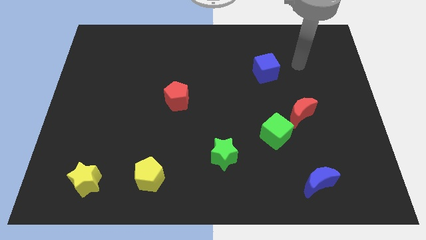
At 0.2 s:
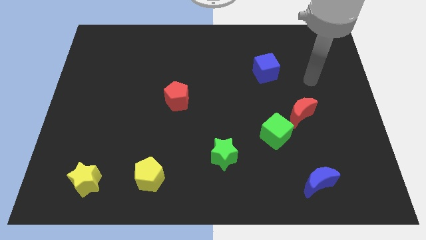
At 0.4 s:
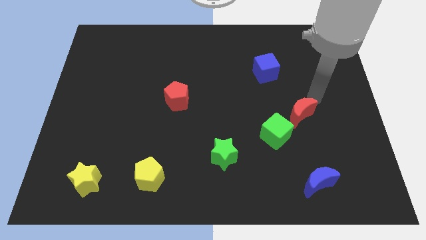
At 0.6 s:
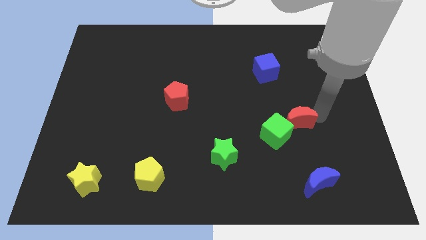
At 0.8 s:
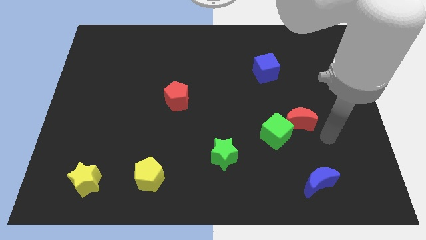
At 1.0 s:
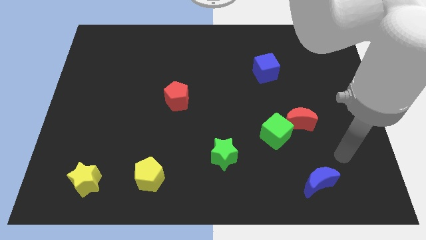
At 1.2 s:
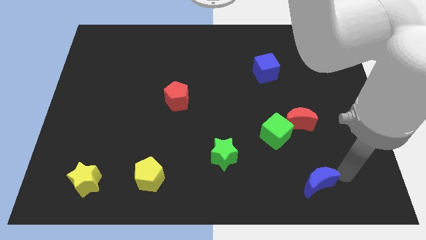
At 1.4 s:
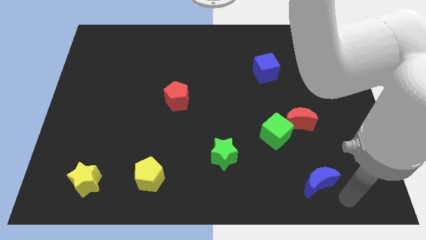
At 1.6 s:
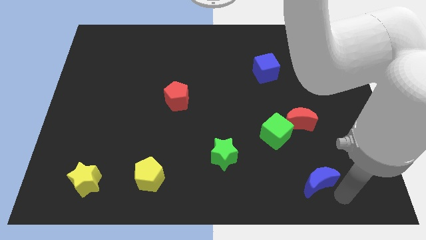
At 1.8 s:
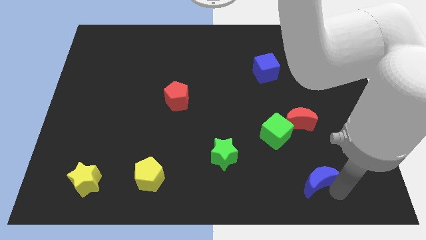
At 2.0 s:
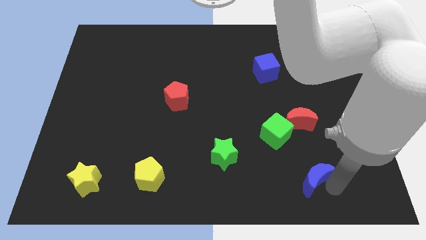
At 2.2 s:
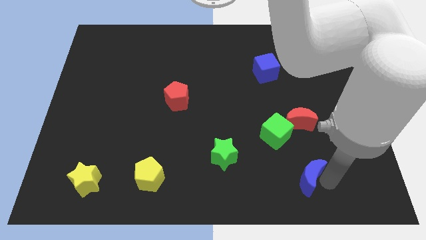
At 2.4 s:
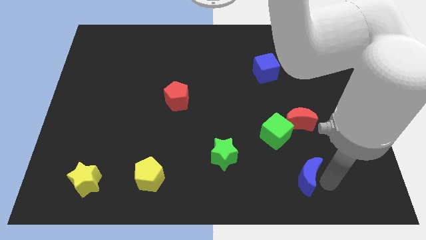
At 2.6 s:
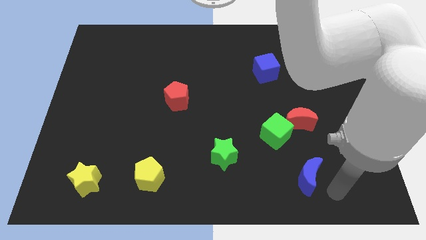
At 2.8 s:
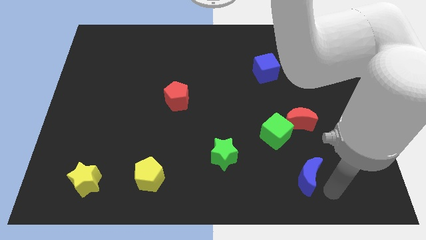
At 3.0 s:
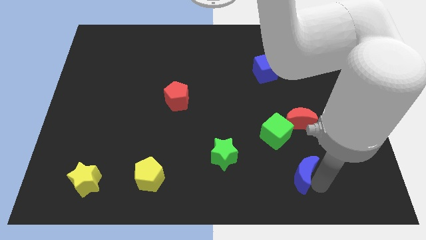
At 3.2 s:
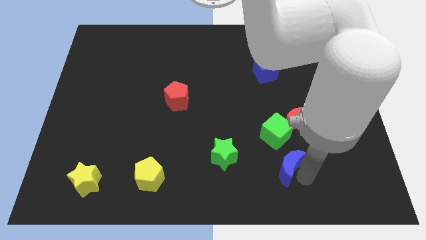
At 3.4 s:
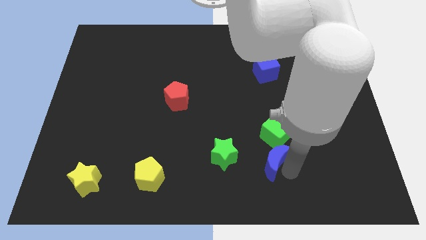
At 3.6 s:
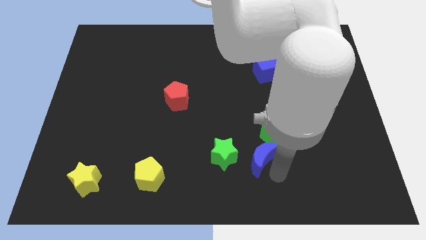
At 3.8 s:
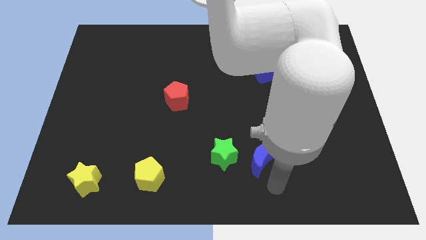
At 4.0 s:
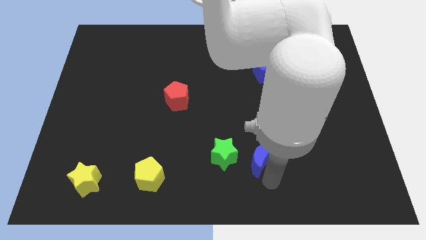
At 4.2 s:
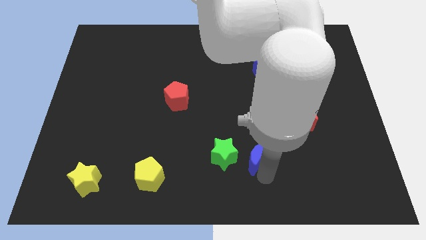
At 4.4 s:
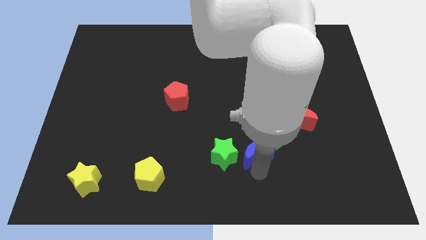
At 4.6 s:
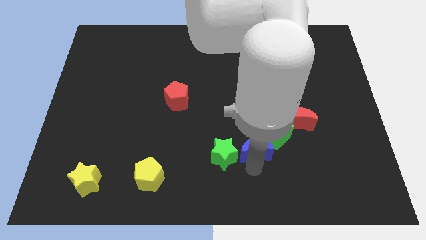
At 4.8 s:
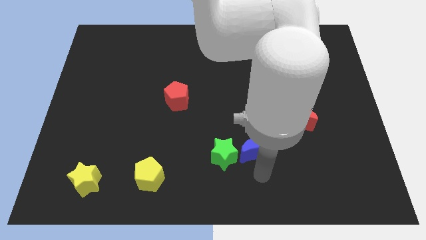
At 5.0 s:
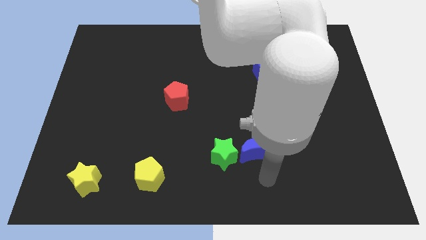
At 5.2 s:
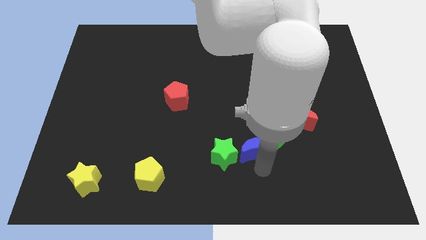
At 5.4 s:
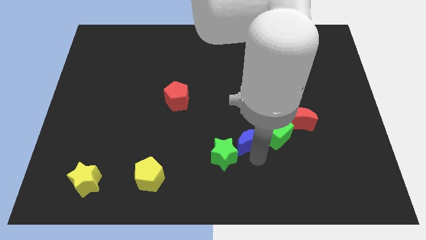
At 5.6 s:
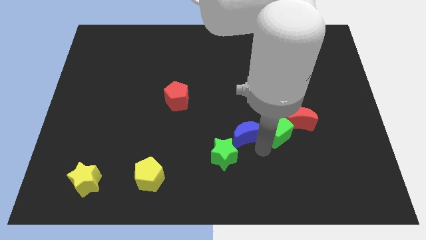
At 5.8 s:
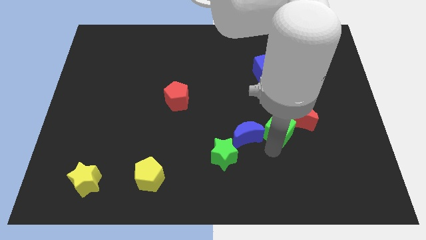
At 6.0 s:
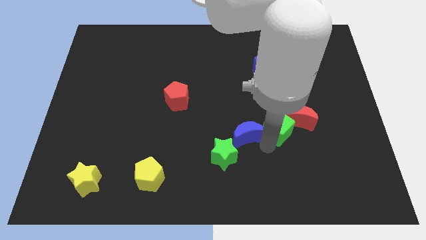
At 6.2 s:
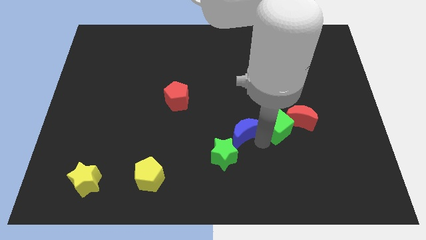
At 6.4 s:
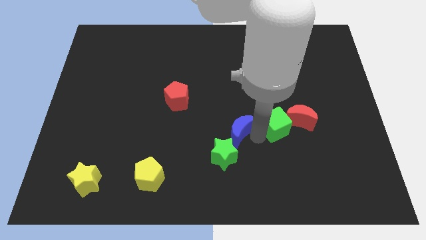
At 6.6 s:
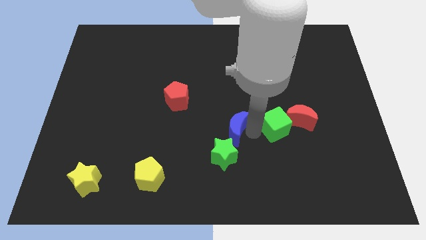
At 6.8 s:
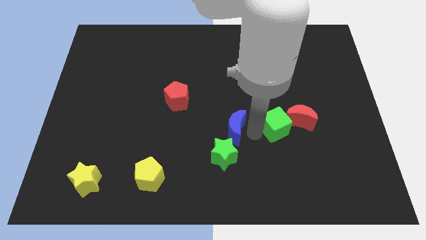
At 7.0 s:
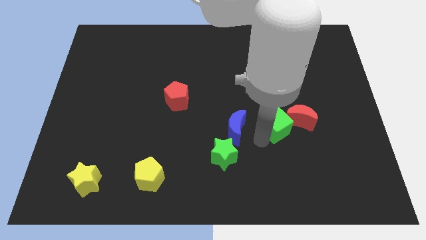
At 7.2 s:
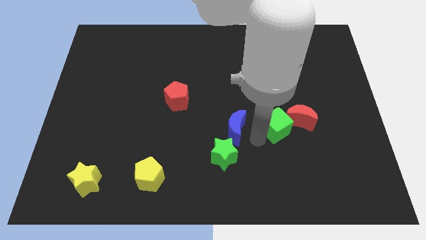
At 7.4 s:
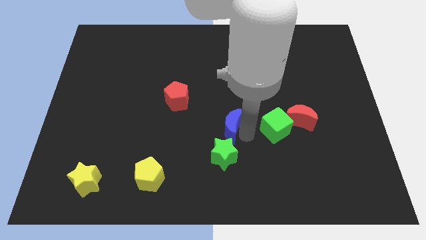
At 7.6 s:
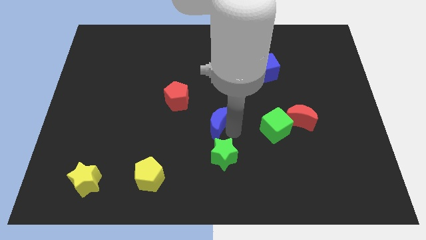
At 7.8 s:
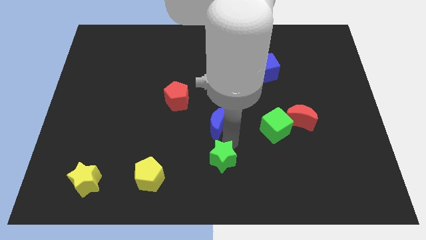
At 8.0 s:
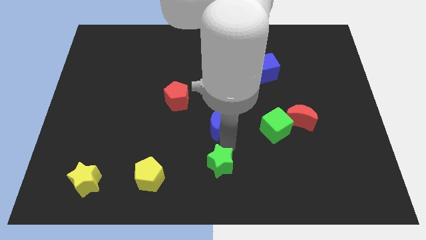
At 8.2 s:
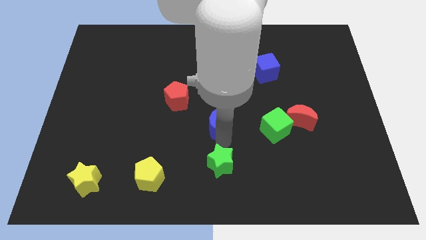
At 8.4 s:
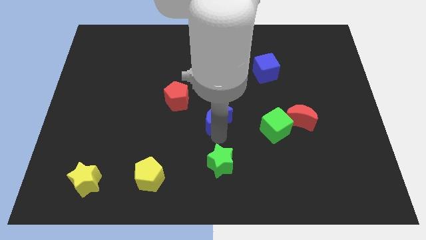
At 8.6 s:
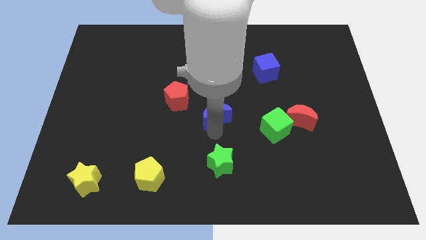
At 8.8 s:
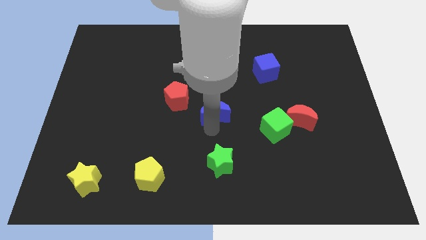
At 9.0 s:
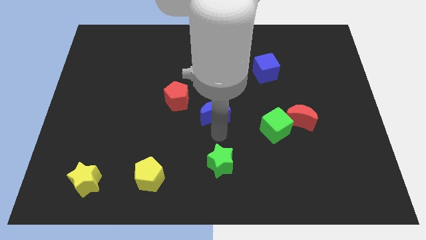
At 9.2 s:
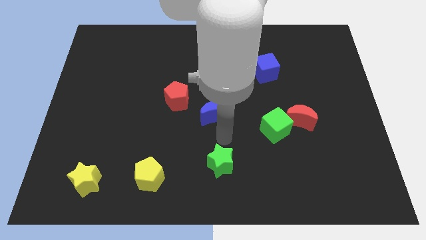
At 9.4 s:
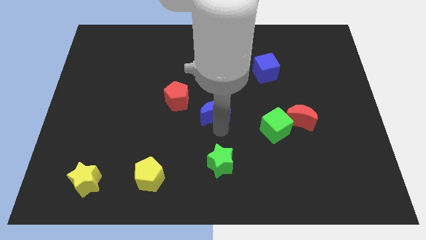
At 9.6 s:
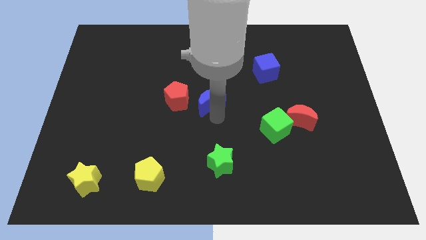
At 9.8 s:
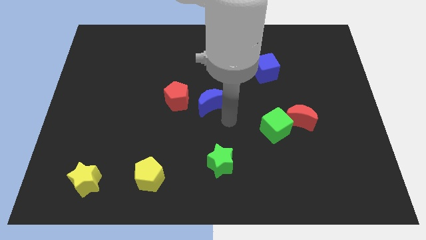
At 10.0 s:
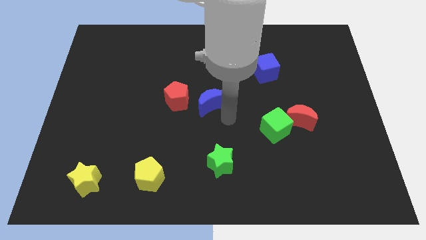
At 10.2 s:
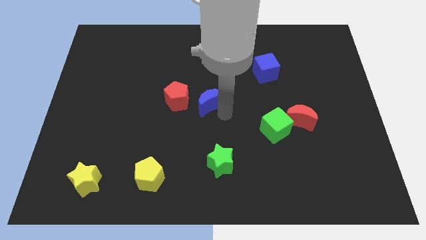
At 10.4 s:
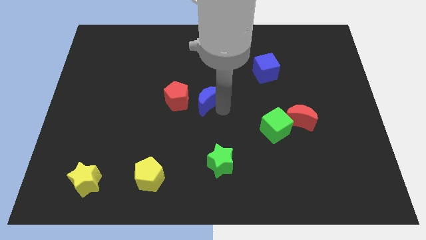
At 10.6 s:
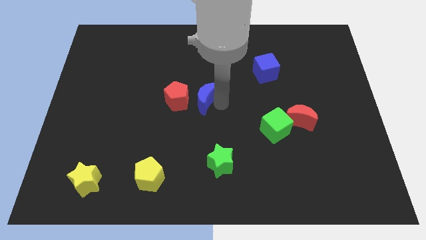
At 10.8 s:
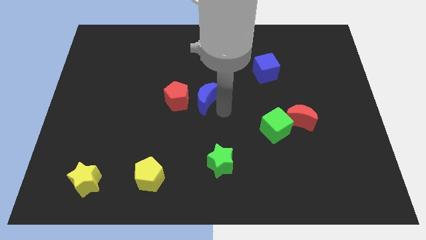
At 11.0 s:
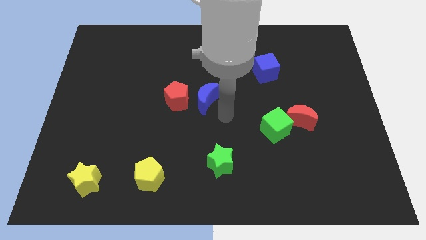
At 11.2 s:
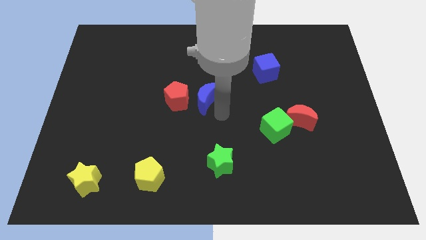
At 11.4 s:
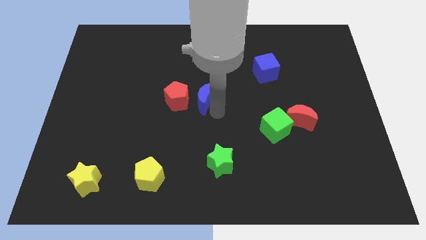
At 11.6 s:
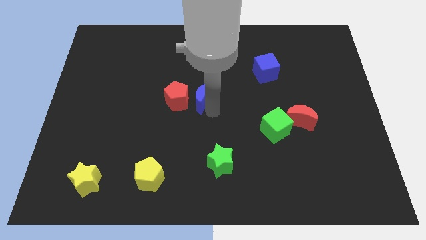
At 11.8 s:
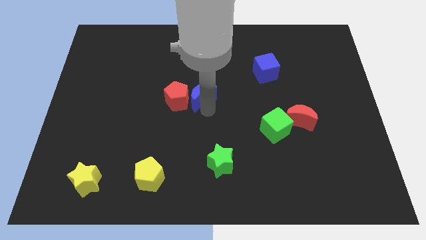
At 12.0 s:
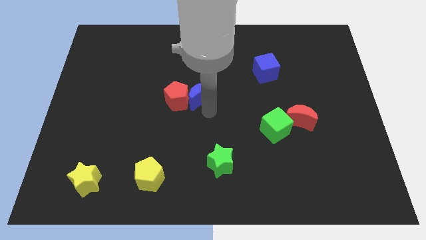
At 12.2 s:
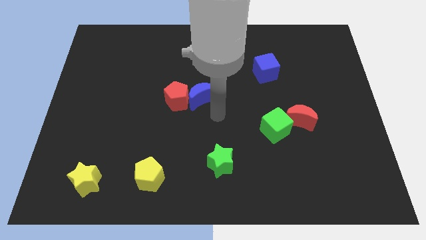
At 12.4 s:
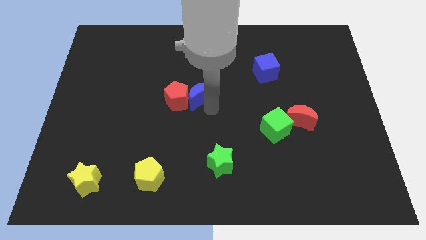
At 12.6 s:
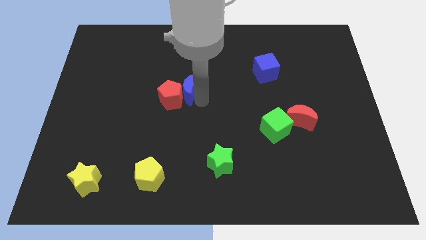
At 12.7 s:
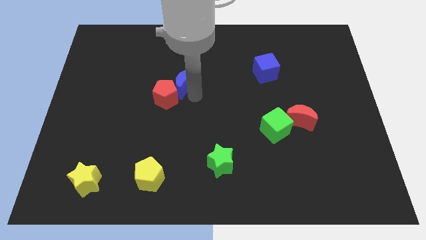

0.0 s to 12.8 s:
put the blue moon above the red pentagon

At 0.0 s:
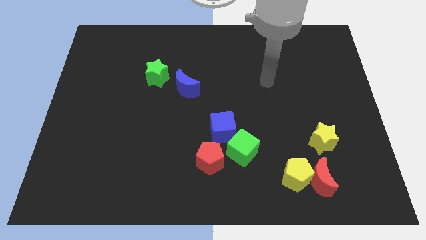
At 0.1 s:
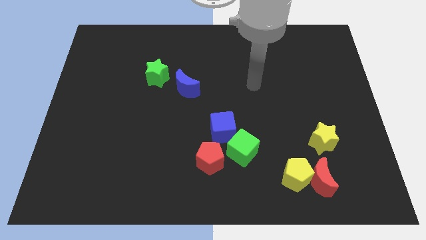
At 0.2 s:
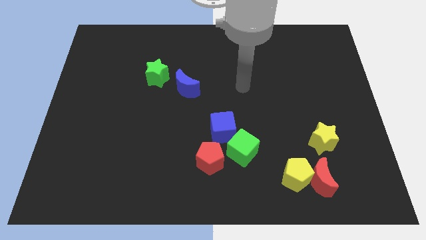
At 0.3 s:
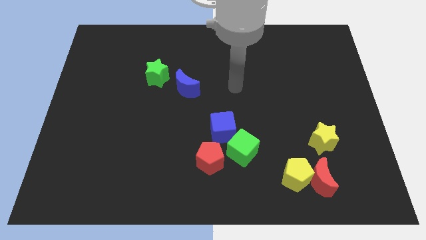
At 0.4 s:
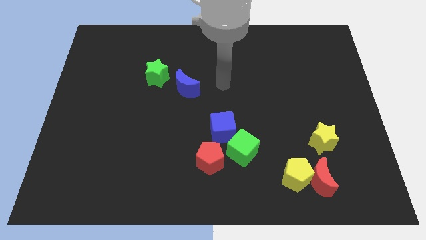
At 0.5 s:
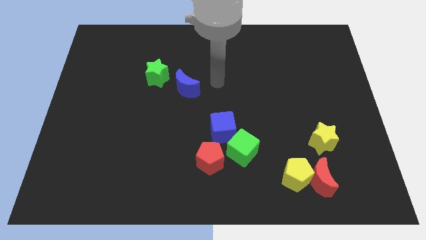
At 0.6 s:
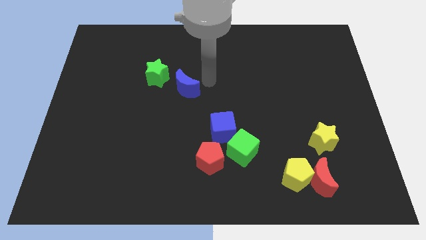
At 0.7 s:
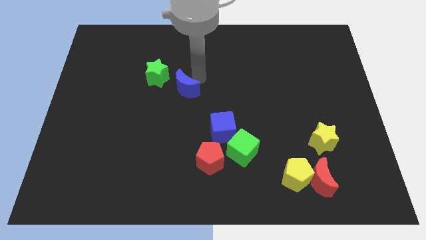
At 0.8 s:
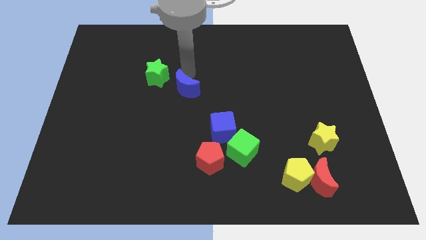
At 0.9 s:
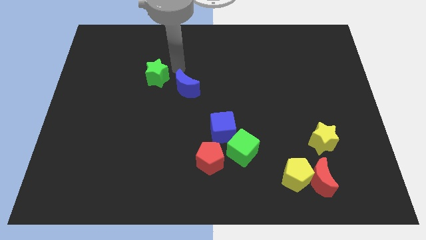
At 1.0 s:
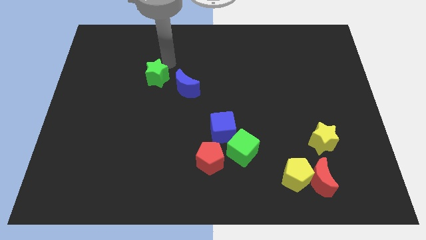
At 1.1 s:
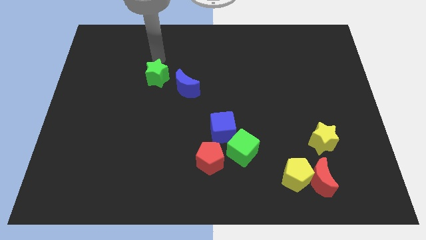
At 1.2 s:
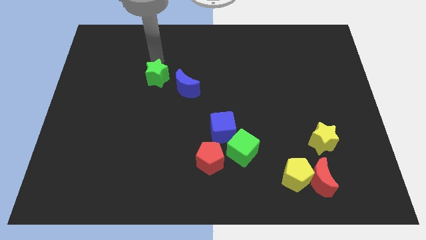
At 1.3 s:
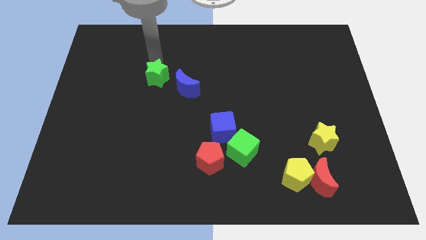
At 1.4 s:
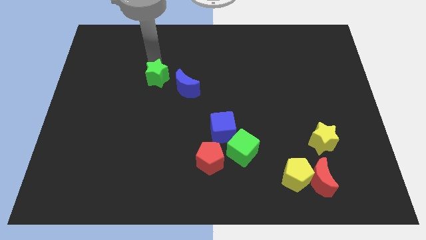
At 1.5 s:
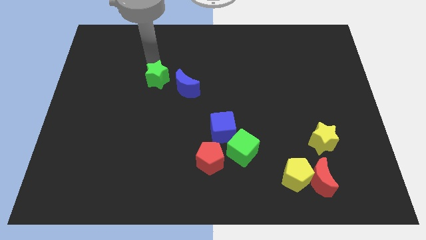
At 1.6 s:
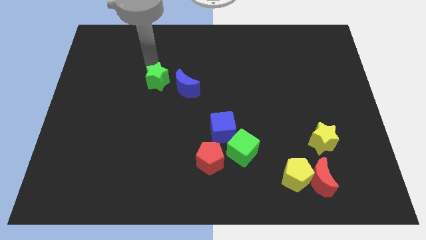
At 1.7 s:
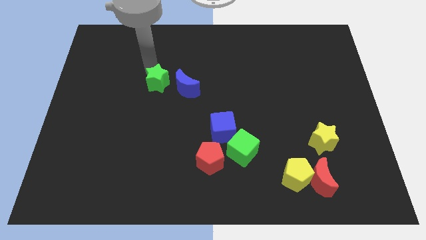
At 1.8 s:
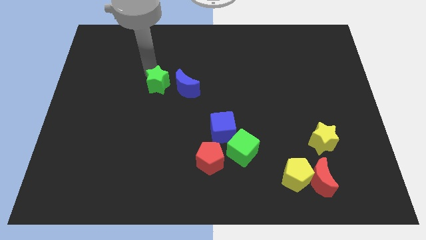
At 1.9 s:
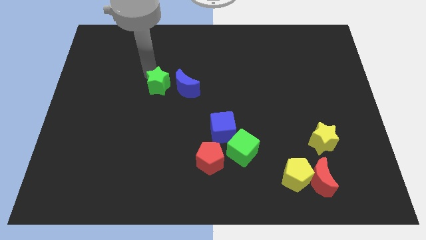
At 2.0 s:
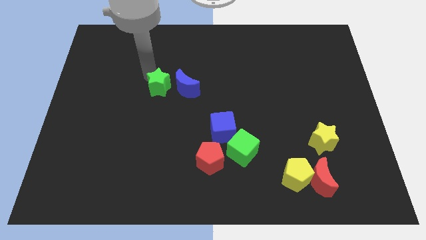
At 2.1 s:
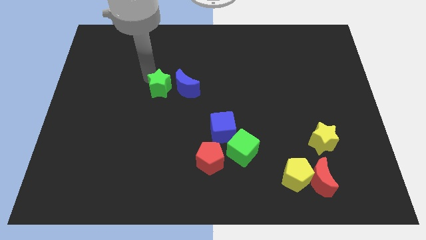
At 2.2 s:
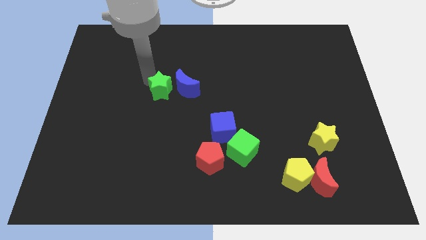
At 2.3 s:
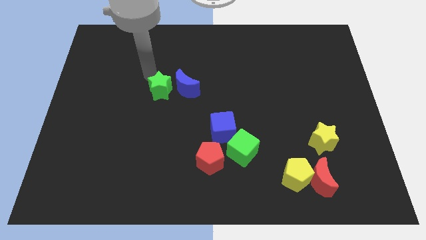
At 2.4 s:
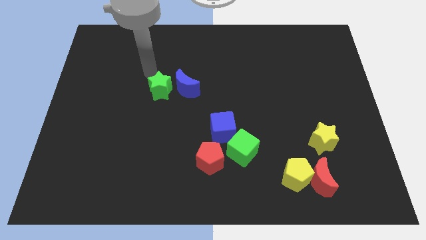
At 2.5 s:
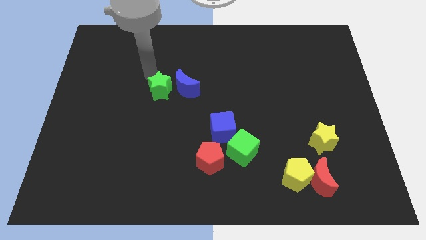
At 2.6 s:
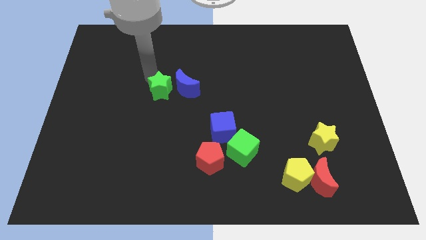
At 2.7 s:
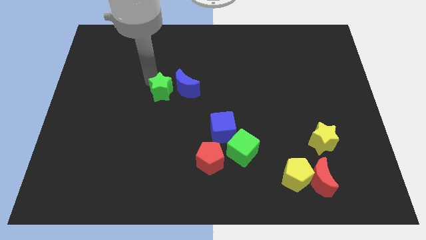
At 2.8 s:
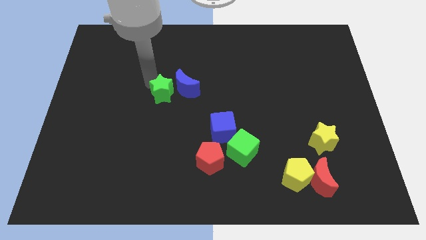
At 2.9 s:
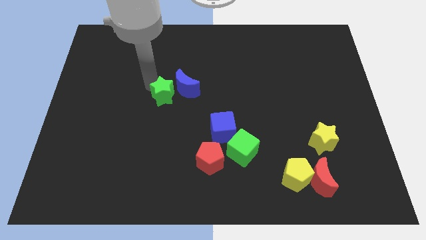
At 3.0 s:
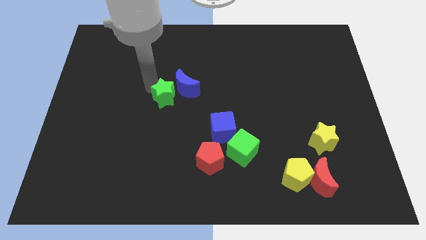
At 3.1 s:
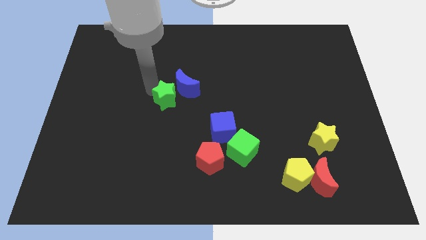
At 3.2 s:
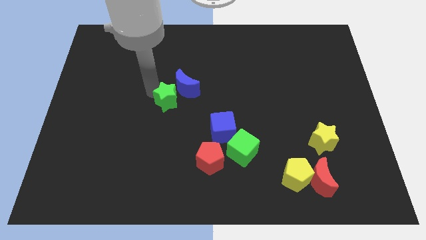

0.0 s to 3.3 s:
put the green star to the bottom side of the blue moon
